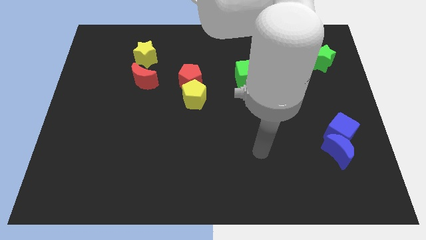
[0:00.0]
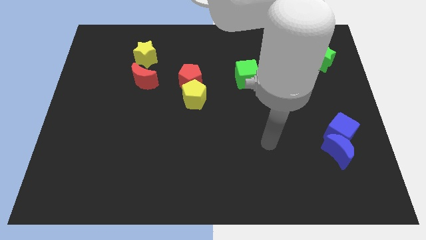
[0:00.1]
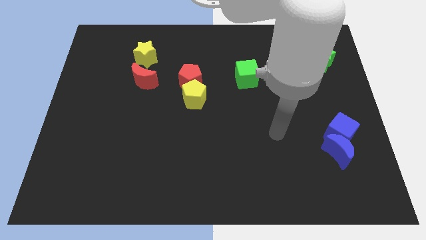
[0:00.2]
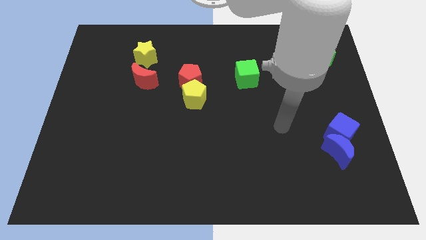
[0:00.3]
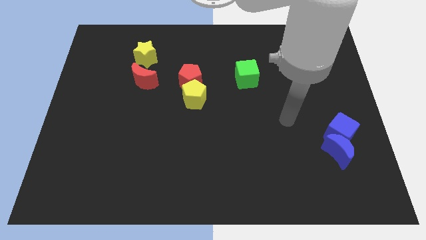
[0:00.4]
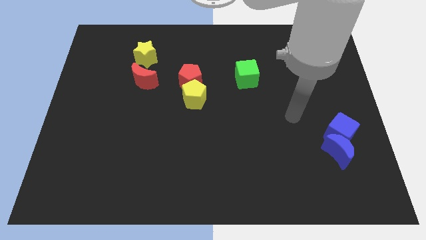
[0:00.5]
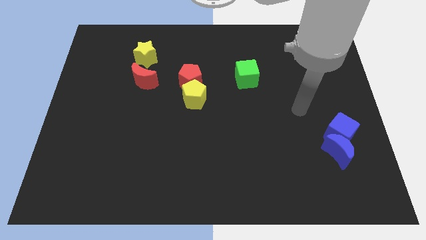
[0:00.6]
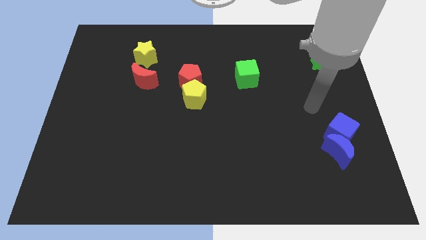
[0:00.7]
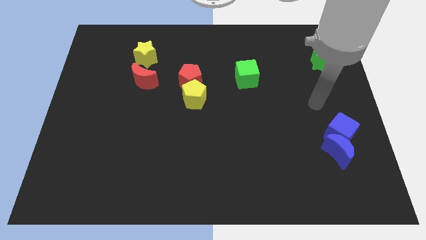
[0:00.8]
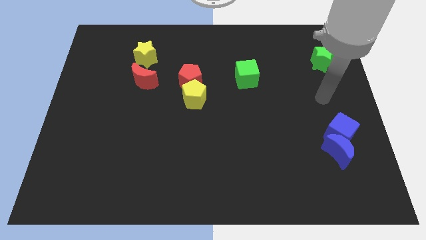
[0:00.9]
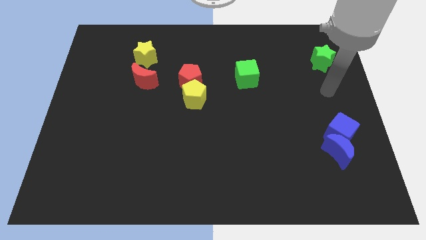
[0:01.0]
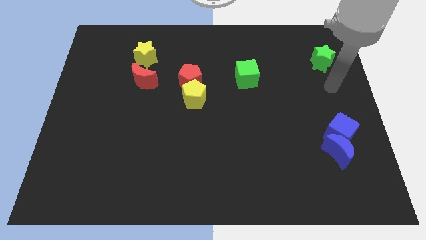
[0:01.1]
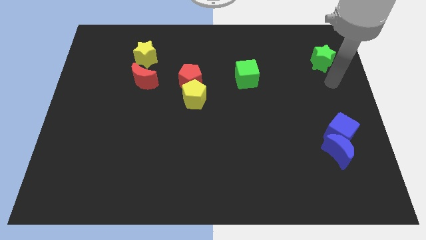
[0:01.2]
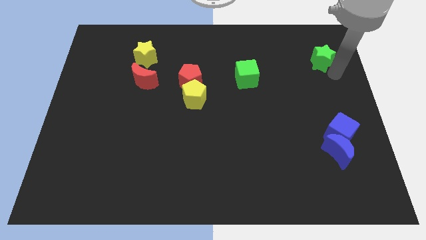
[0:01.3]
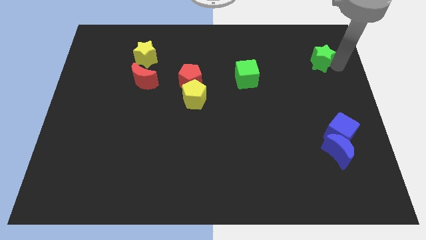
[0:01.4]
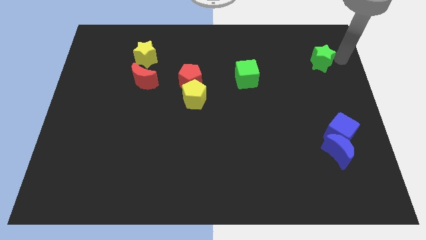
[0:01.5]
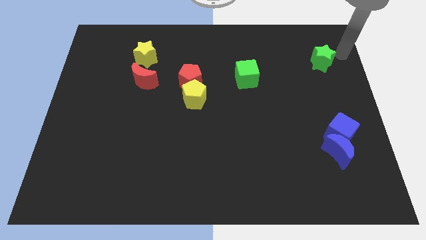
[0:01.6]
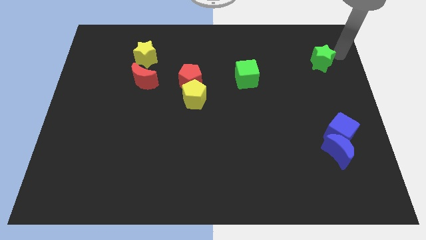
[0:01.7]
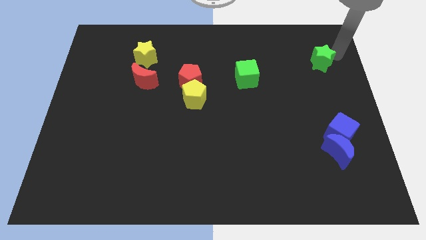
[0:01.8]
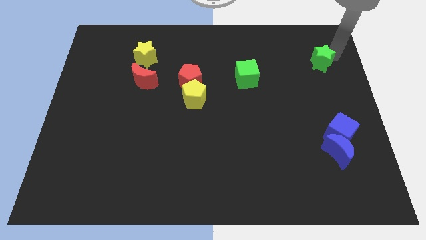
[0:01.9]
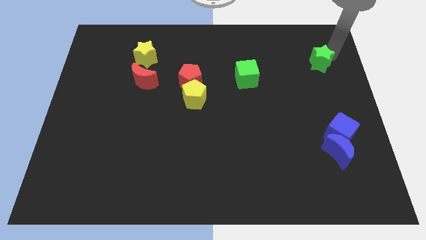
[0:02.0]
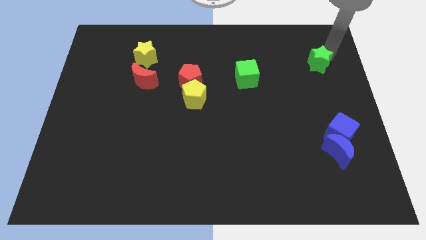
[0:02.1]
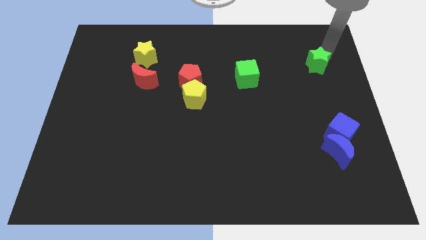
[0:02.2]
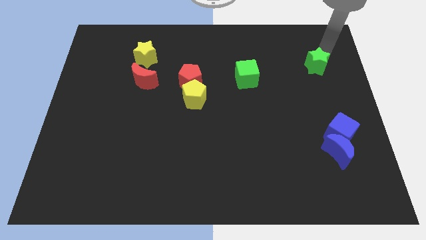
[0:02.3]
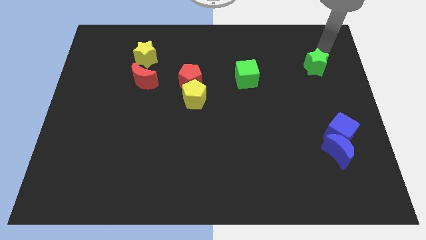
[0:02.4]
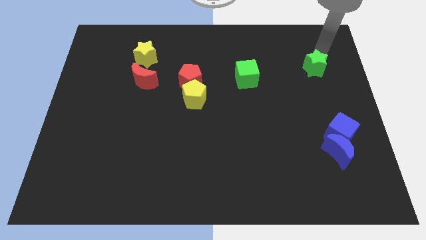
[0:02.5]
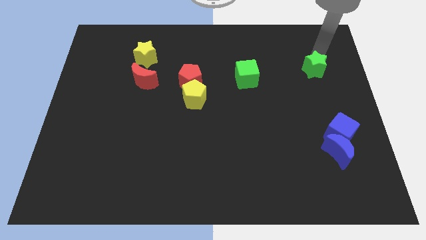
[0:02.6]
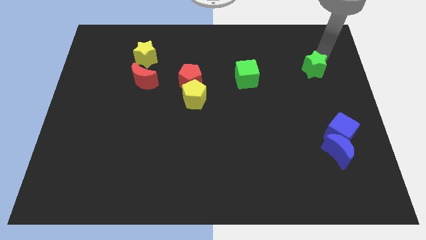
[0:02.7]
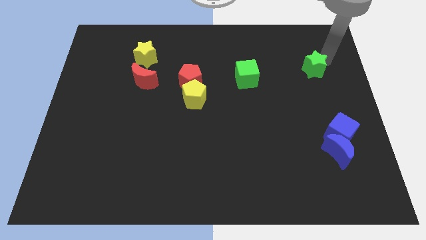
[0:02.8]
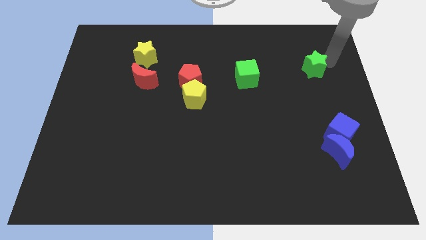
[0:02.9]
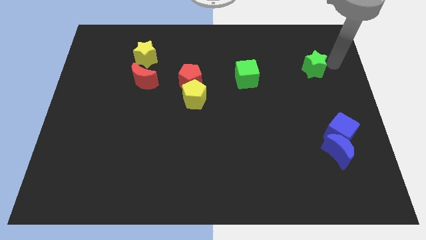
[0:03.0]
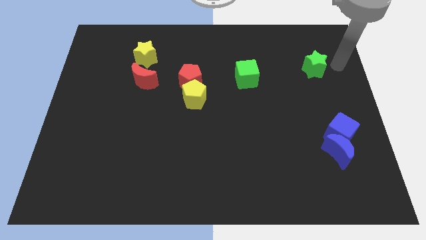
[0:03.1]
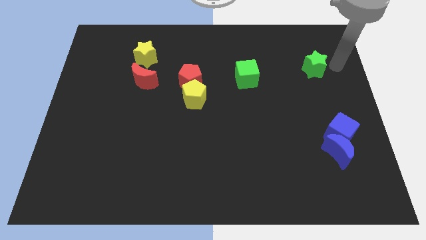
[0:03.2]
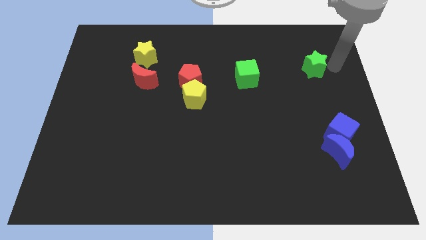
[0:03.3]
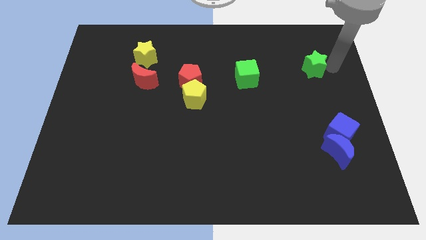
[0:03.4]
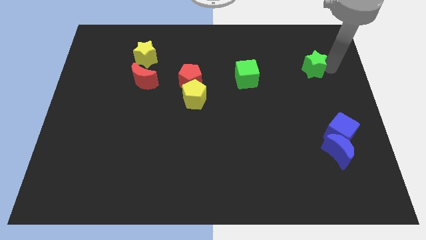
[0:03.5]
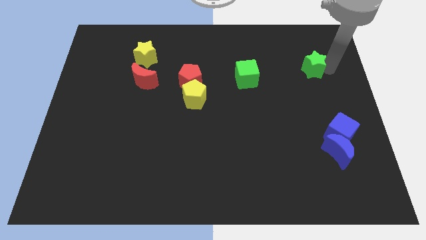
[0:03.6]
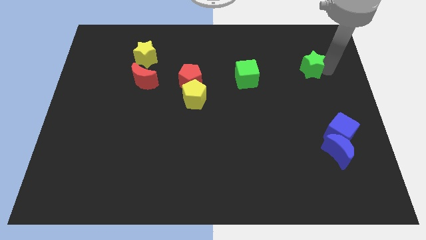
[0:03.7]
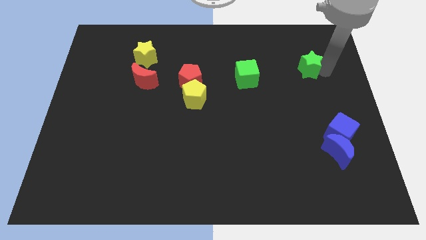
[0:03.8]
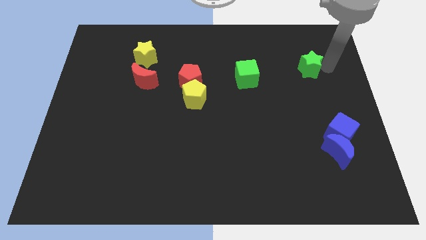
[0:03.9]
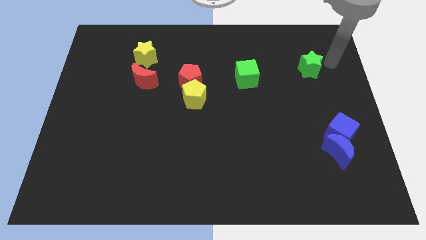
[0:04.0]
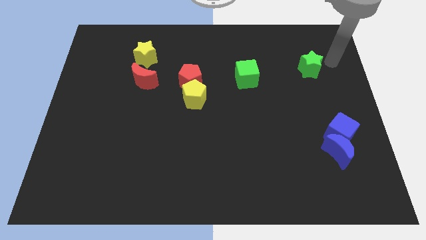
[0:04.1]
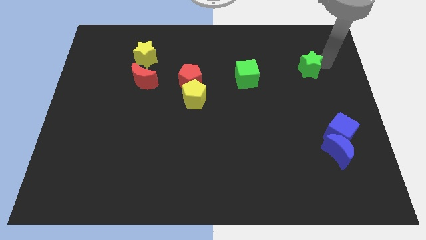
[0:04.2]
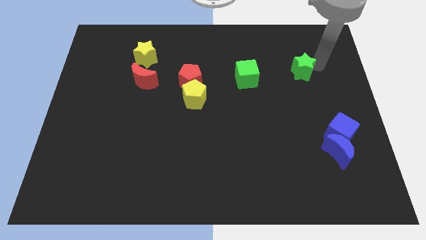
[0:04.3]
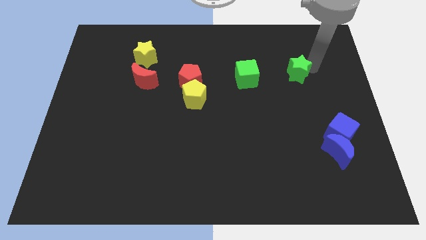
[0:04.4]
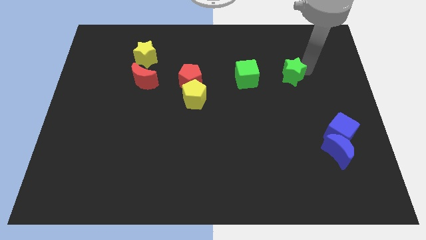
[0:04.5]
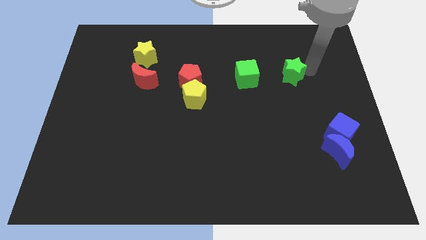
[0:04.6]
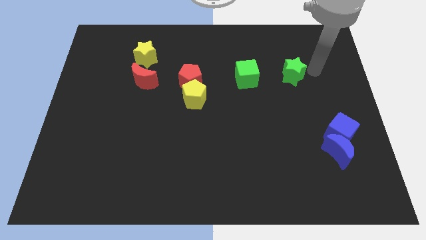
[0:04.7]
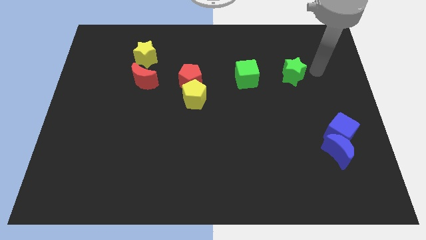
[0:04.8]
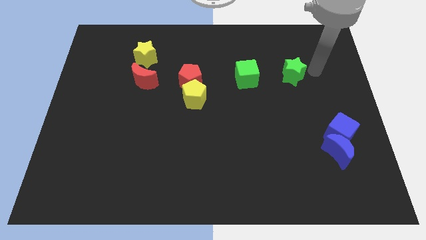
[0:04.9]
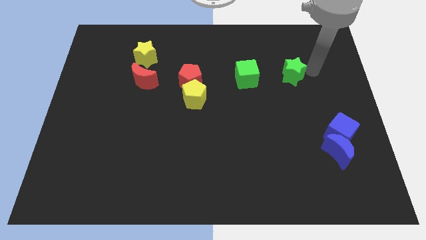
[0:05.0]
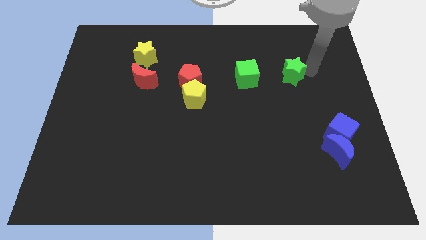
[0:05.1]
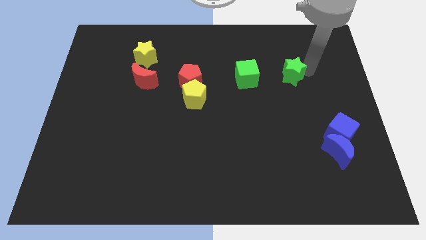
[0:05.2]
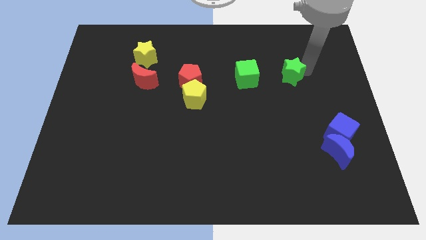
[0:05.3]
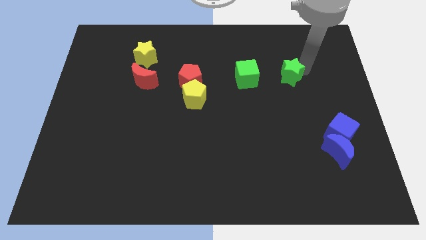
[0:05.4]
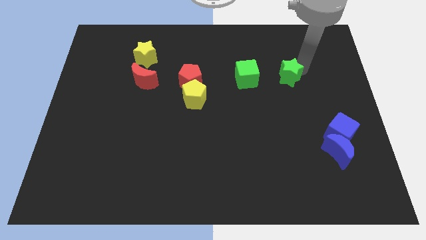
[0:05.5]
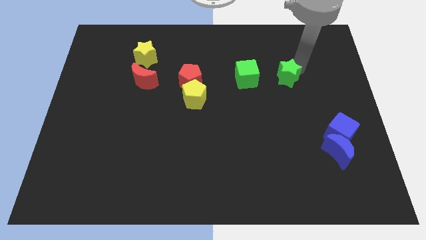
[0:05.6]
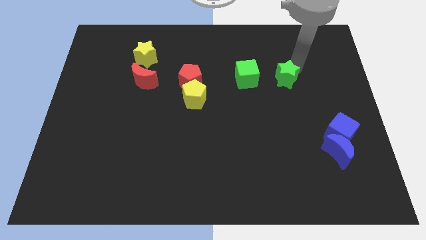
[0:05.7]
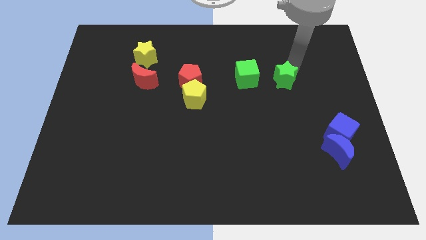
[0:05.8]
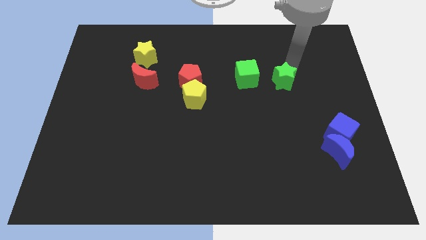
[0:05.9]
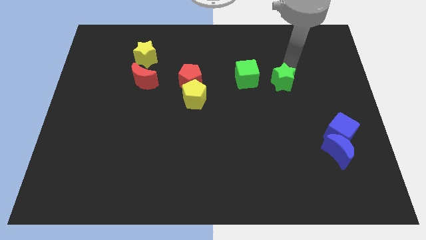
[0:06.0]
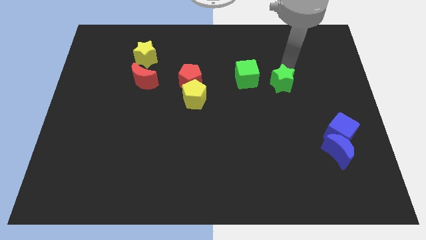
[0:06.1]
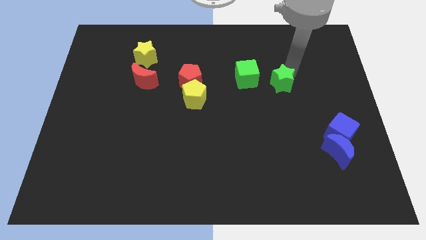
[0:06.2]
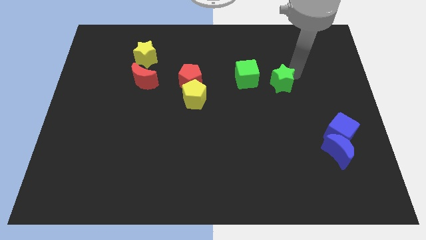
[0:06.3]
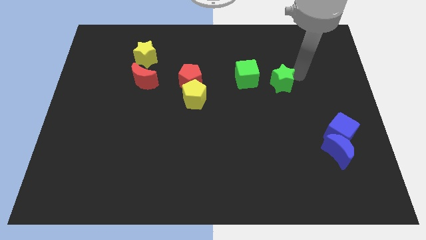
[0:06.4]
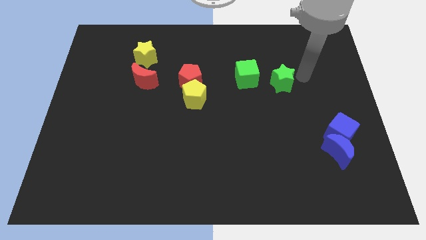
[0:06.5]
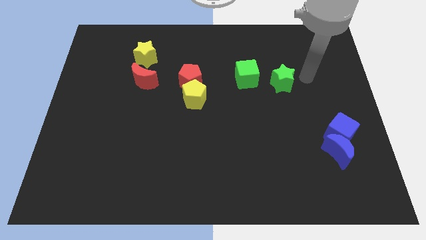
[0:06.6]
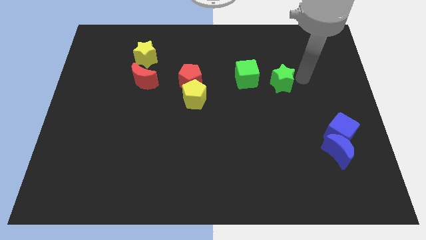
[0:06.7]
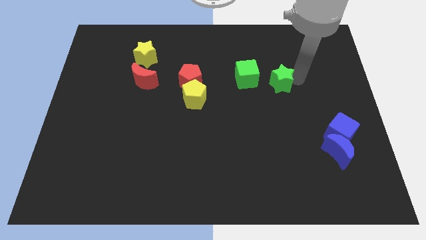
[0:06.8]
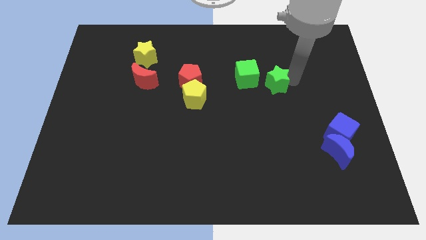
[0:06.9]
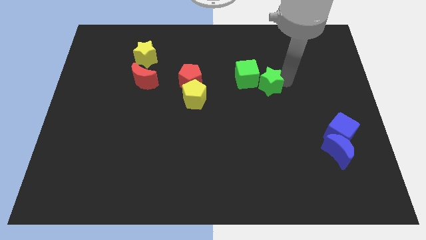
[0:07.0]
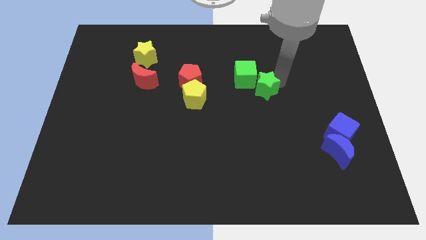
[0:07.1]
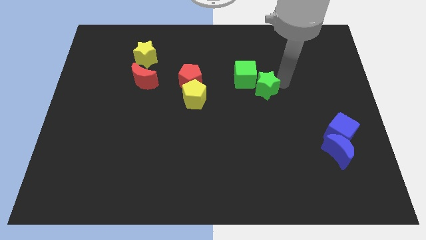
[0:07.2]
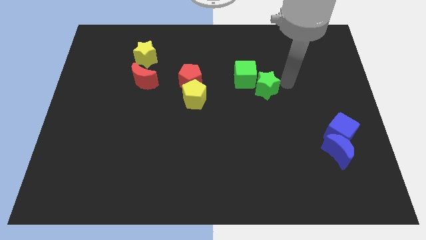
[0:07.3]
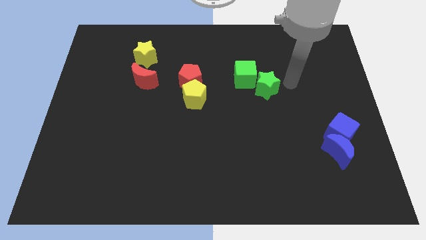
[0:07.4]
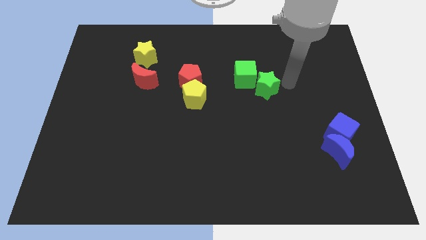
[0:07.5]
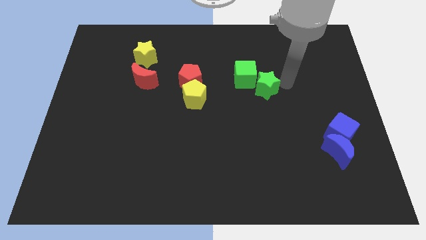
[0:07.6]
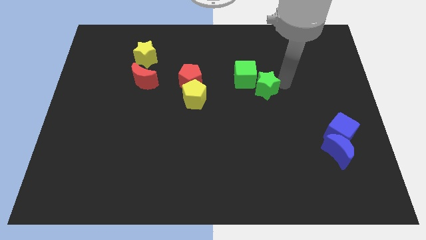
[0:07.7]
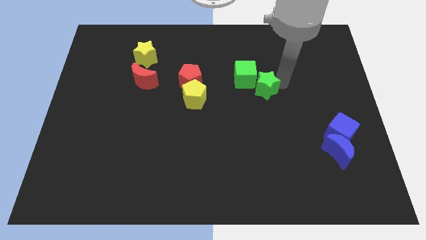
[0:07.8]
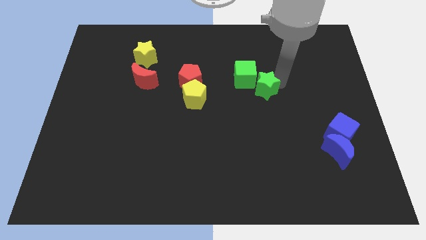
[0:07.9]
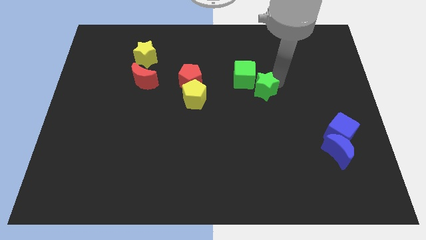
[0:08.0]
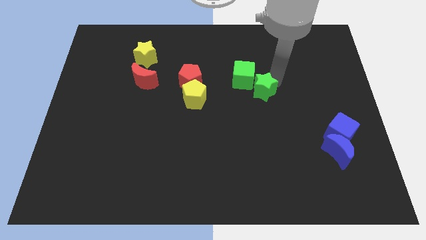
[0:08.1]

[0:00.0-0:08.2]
put the green star to the center of the board
